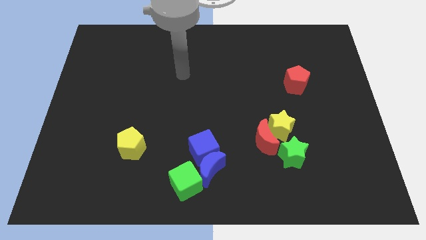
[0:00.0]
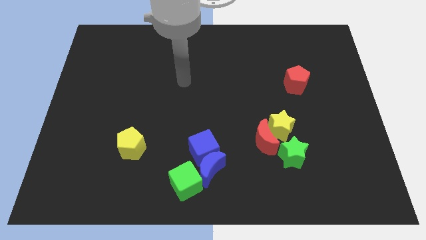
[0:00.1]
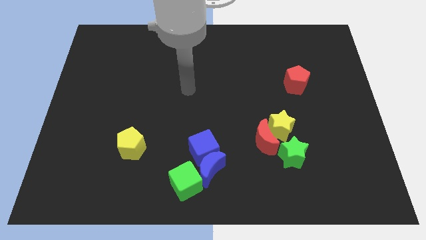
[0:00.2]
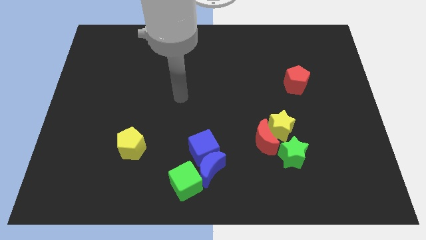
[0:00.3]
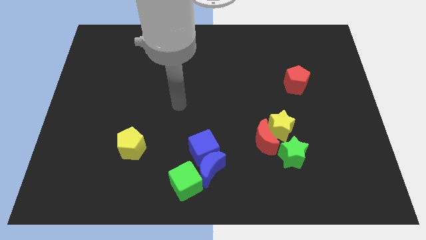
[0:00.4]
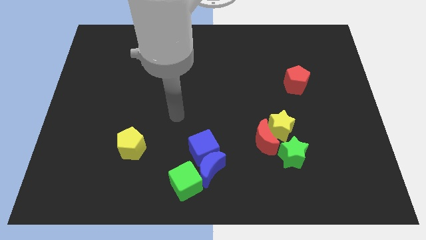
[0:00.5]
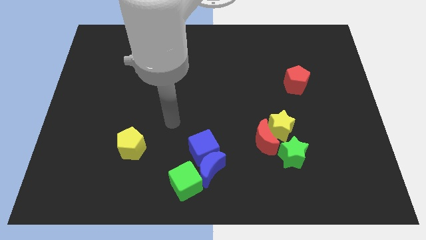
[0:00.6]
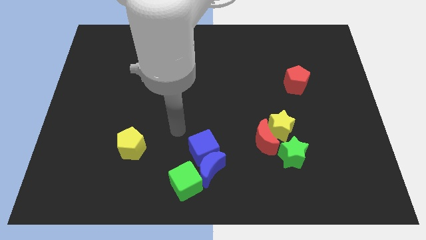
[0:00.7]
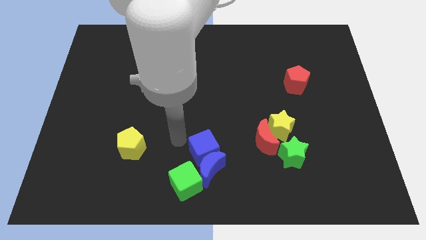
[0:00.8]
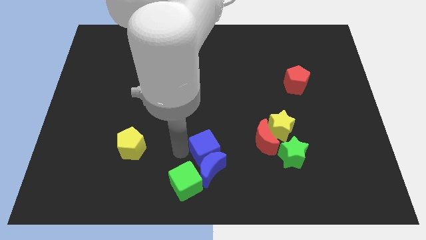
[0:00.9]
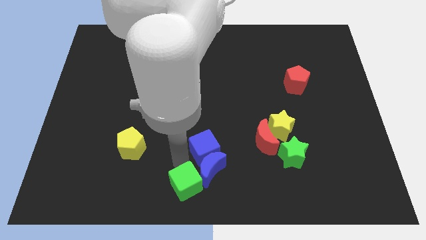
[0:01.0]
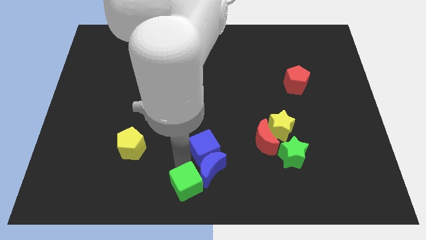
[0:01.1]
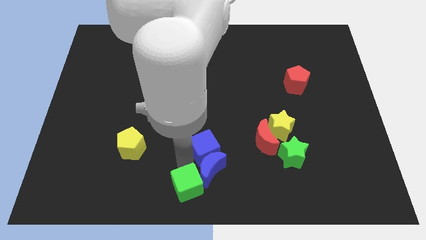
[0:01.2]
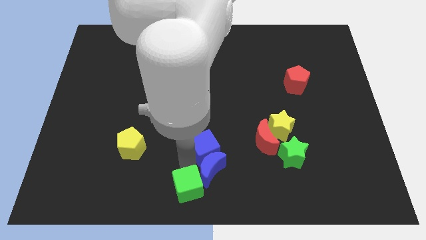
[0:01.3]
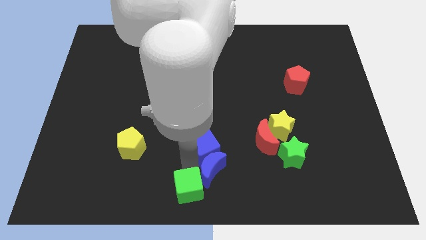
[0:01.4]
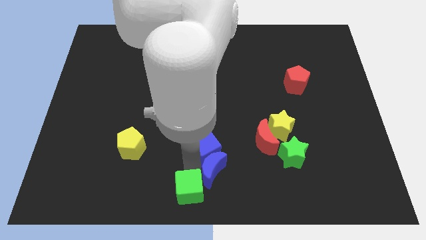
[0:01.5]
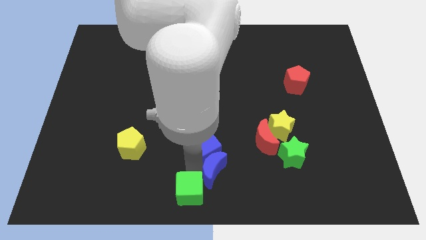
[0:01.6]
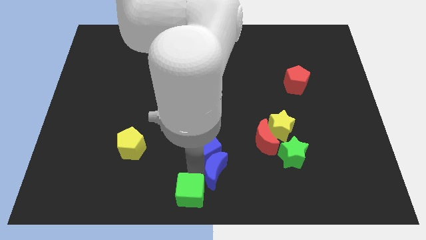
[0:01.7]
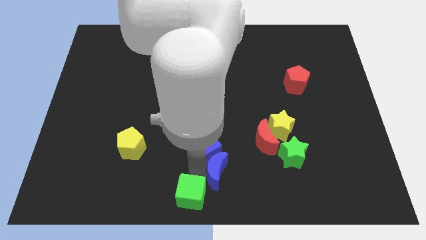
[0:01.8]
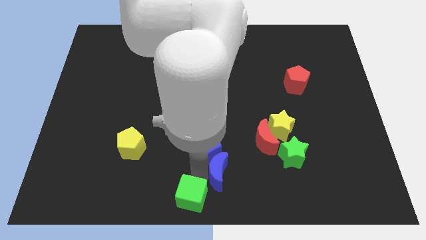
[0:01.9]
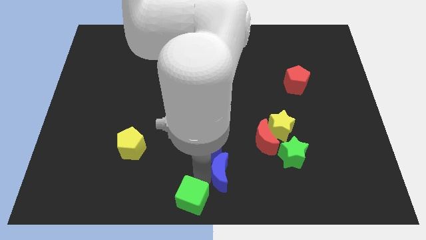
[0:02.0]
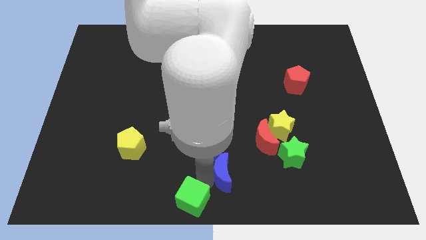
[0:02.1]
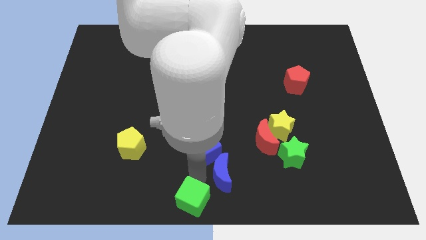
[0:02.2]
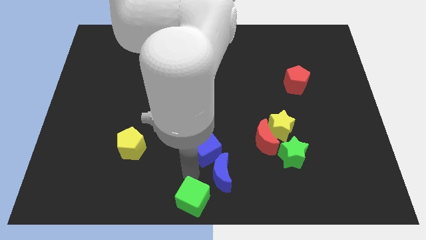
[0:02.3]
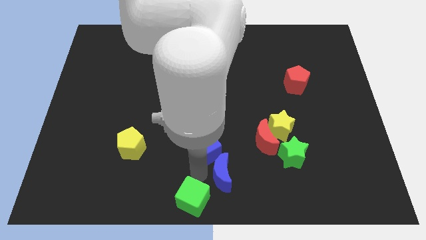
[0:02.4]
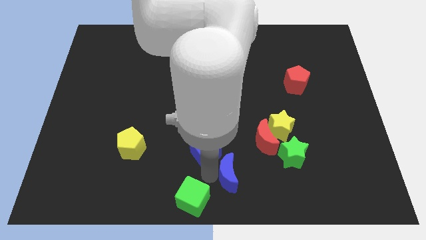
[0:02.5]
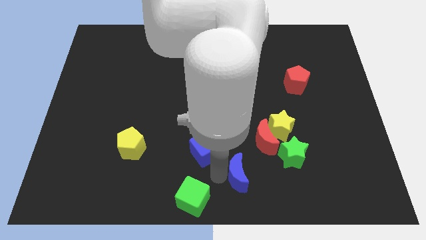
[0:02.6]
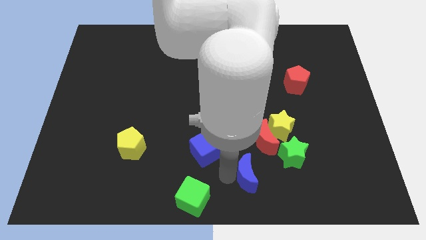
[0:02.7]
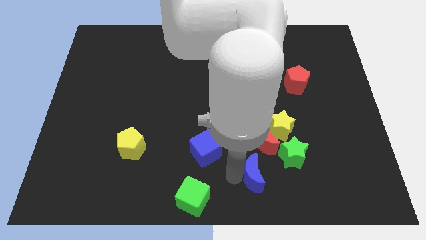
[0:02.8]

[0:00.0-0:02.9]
separate the blue moon from the blue cube and green cube

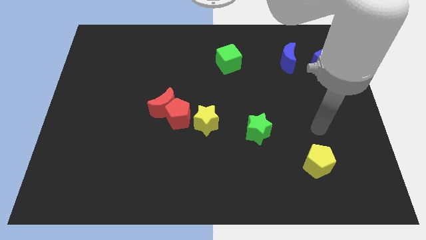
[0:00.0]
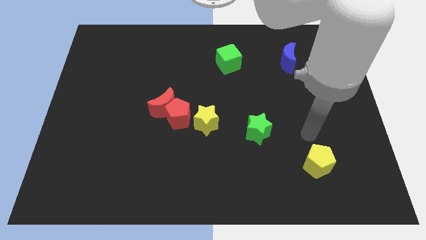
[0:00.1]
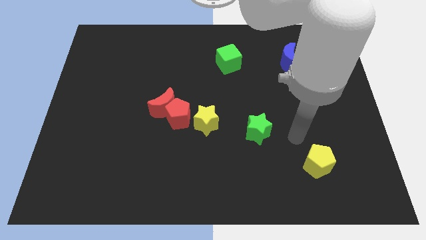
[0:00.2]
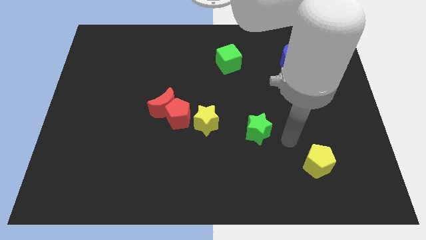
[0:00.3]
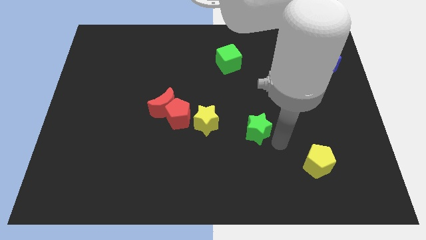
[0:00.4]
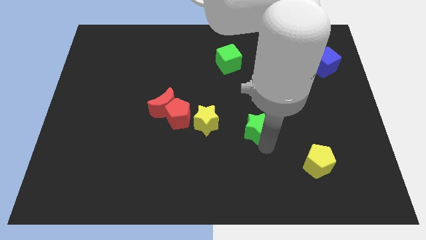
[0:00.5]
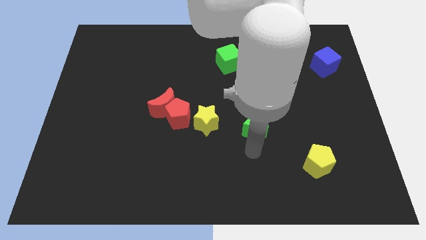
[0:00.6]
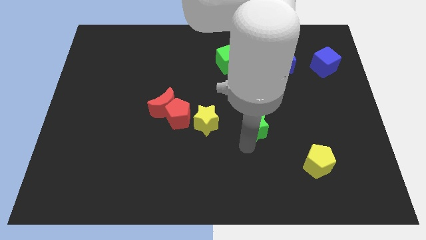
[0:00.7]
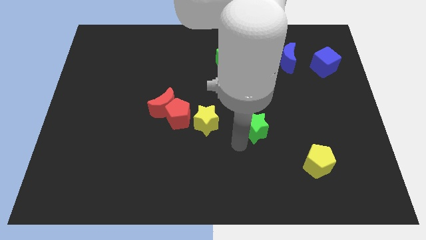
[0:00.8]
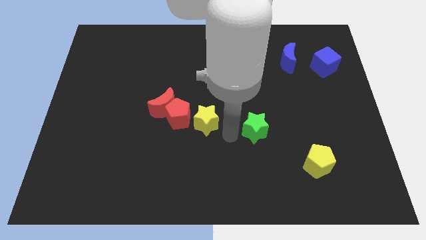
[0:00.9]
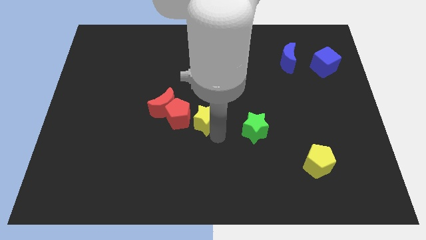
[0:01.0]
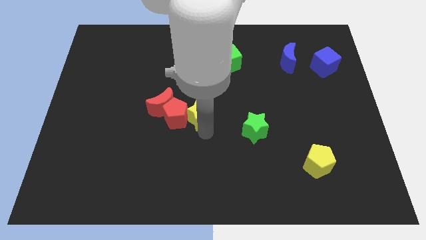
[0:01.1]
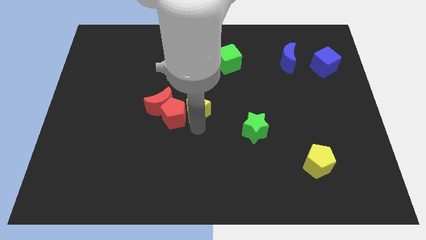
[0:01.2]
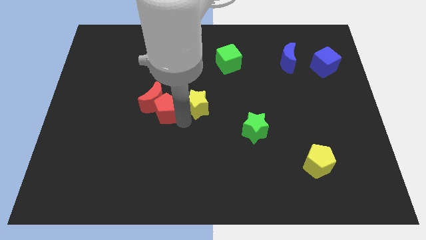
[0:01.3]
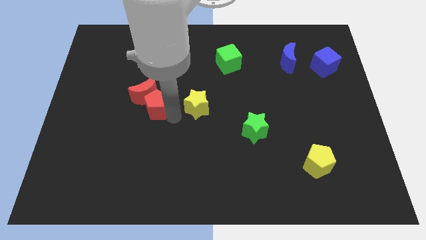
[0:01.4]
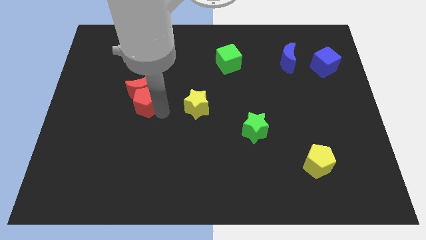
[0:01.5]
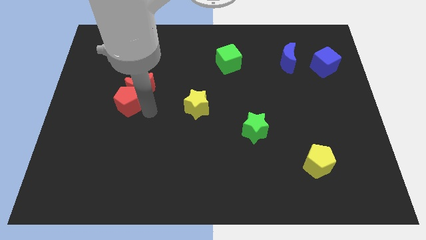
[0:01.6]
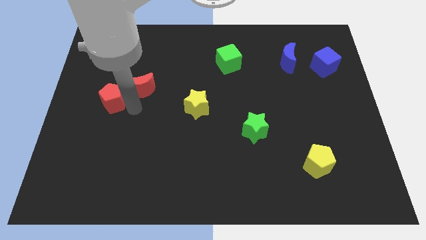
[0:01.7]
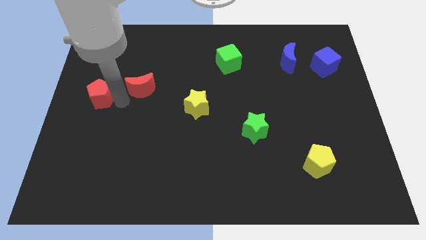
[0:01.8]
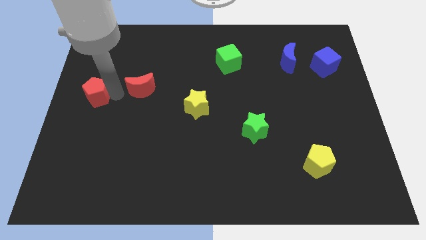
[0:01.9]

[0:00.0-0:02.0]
separate the red moon from the red pentagon

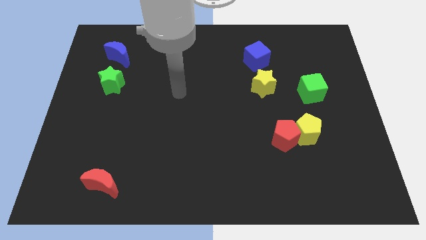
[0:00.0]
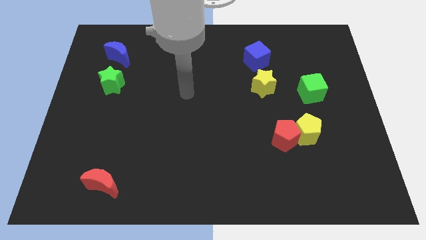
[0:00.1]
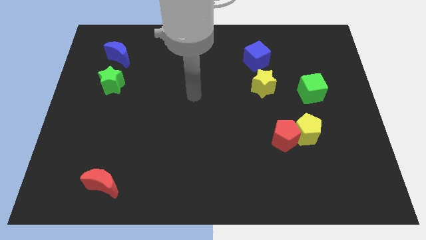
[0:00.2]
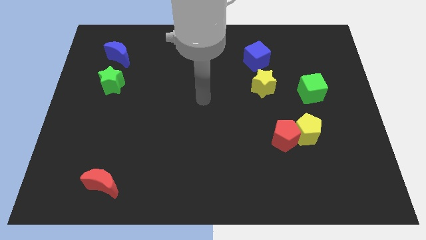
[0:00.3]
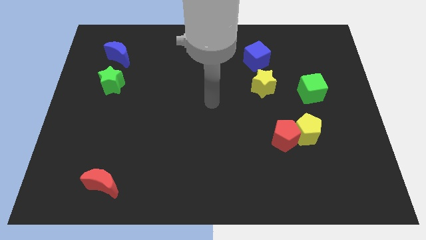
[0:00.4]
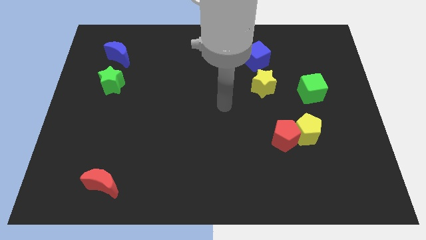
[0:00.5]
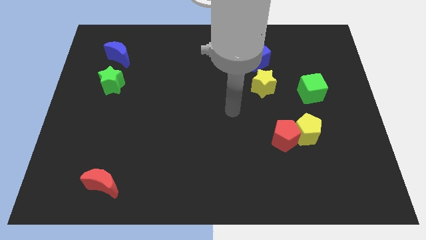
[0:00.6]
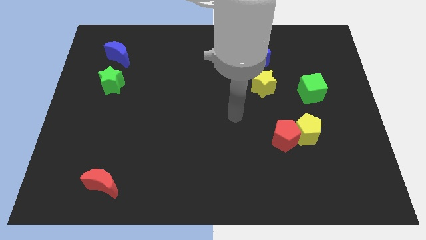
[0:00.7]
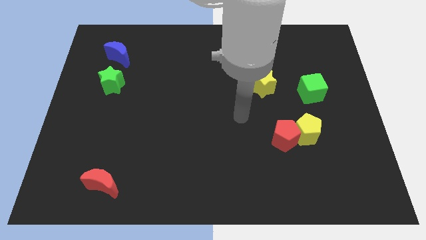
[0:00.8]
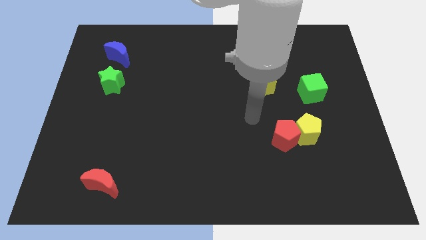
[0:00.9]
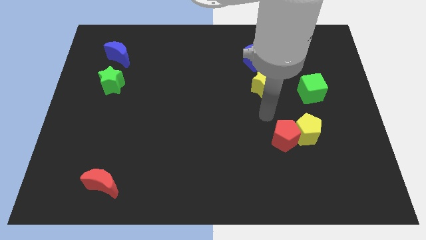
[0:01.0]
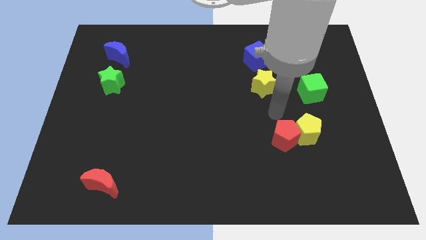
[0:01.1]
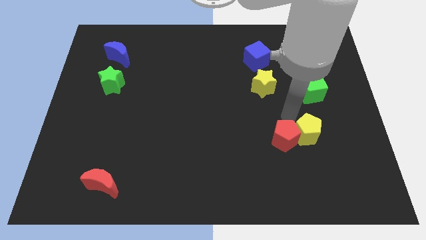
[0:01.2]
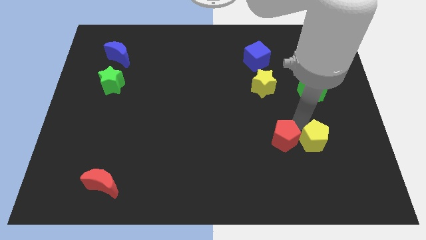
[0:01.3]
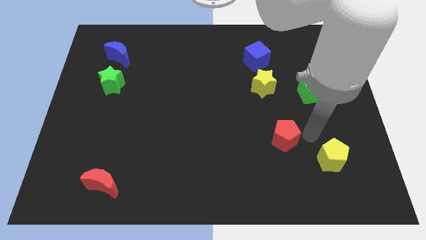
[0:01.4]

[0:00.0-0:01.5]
separate the red pentagon from the yellow pentagon

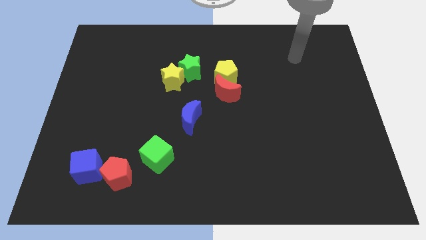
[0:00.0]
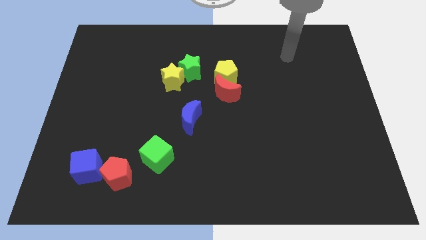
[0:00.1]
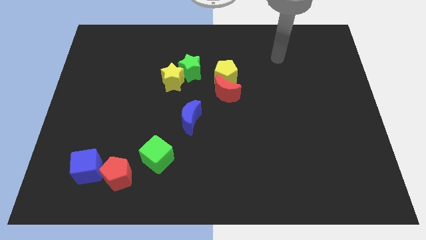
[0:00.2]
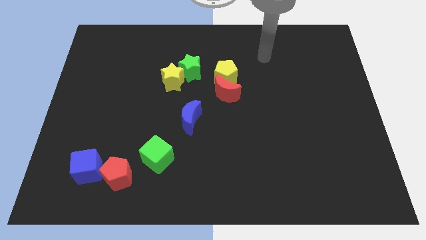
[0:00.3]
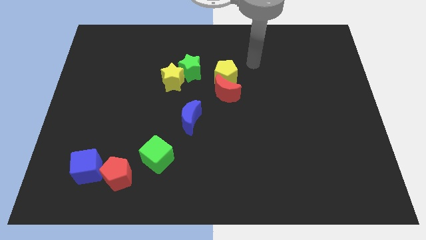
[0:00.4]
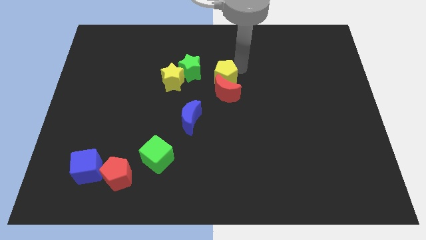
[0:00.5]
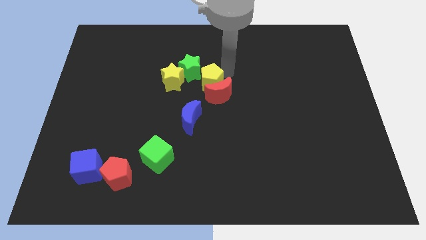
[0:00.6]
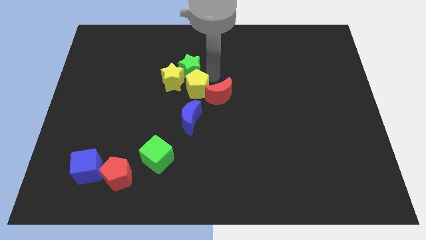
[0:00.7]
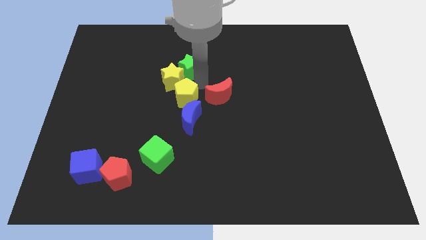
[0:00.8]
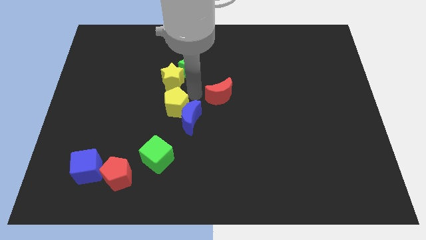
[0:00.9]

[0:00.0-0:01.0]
pull the red moon apart from the yellow pentagon

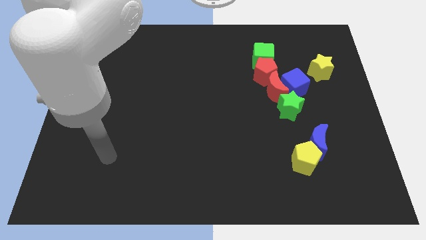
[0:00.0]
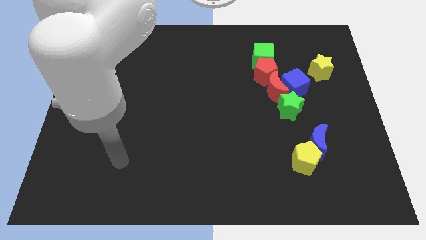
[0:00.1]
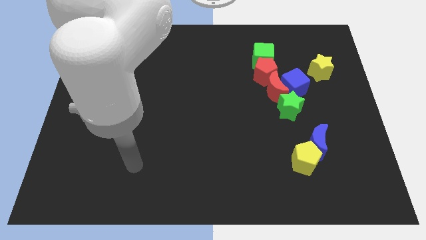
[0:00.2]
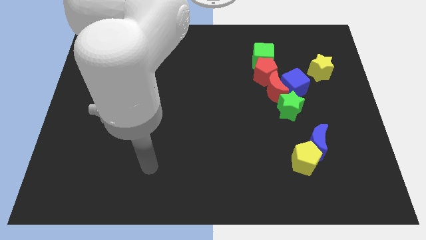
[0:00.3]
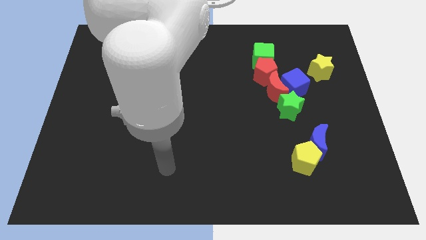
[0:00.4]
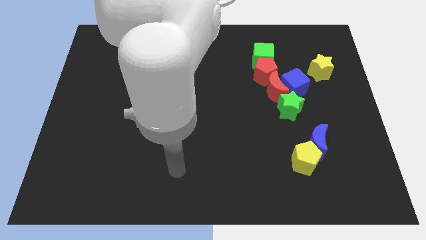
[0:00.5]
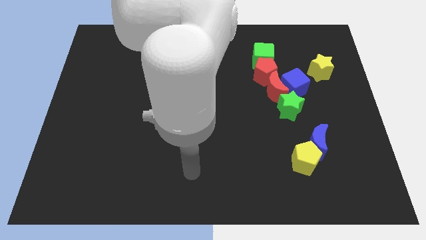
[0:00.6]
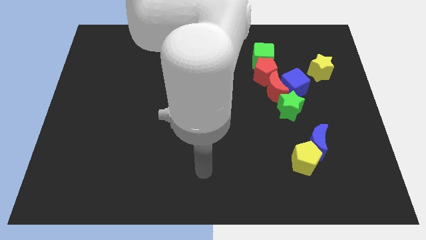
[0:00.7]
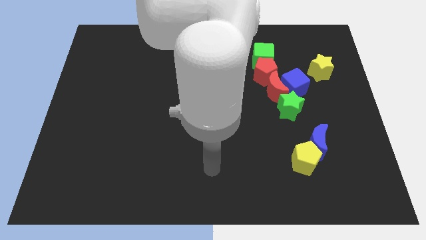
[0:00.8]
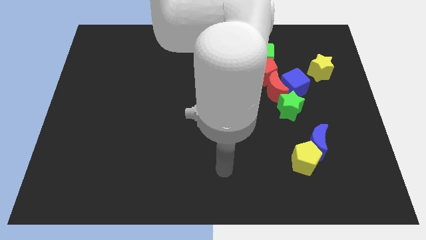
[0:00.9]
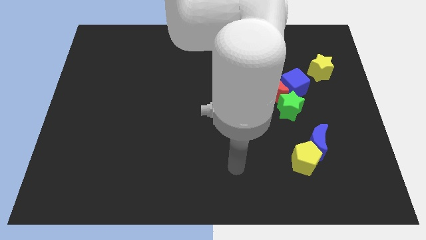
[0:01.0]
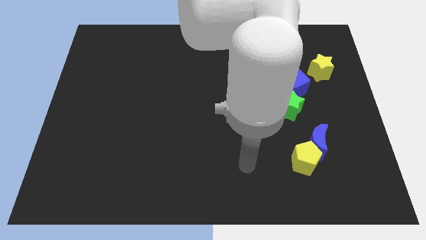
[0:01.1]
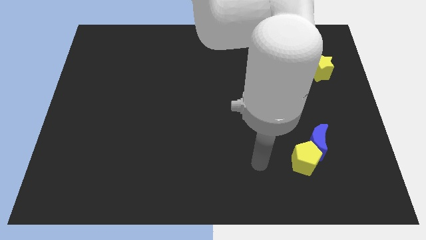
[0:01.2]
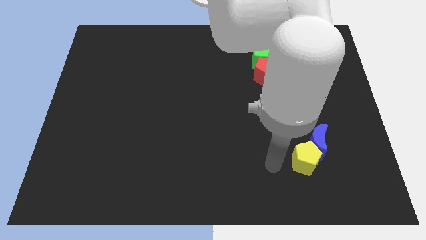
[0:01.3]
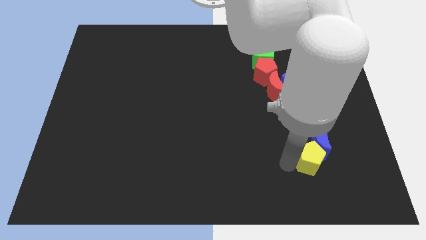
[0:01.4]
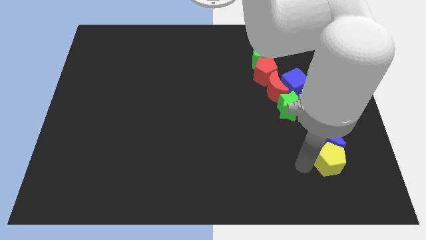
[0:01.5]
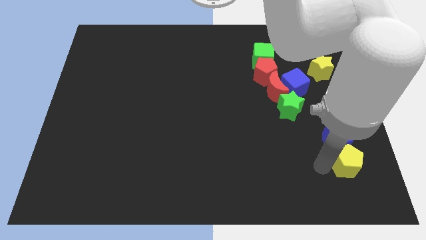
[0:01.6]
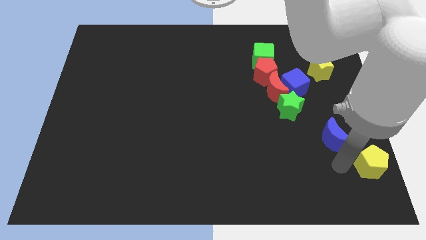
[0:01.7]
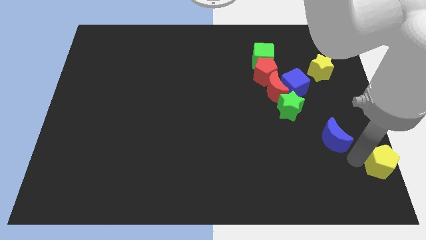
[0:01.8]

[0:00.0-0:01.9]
separate the blue moon from the yellow pentagon
